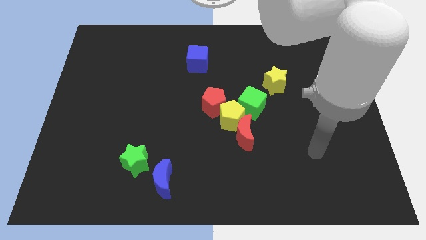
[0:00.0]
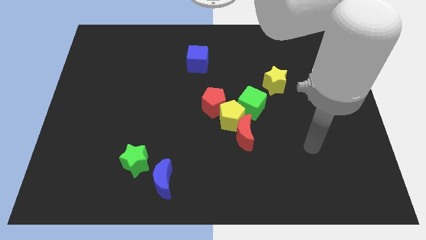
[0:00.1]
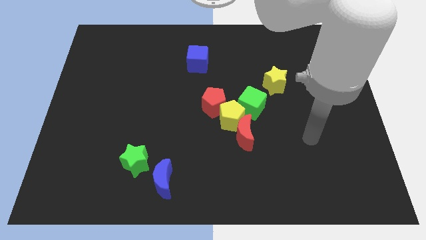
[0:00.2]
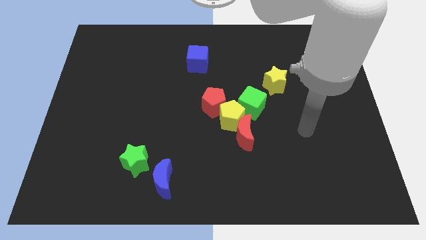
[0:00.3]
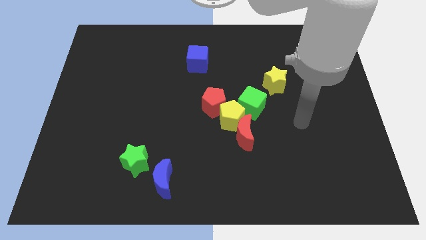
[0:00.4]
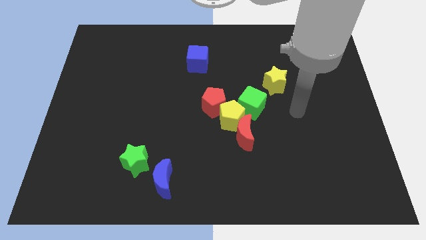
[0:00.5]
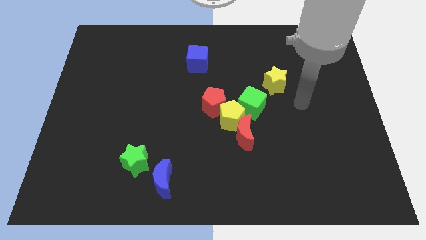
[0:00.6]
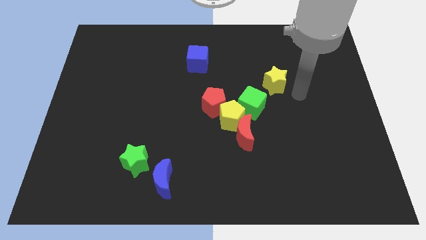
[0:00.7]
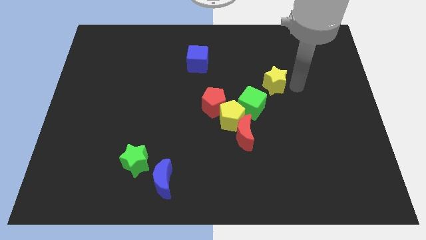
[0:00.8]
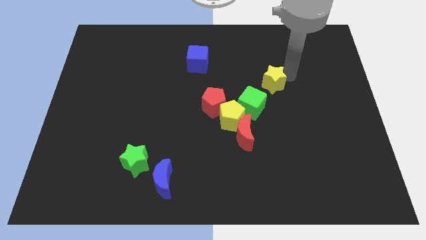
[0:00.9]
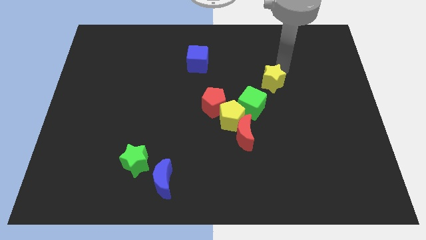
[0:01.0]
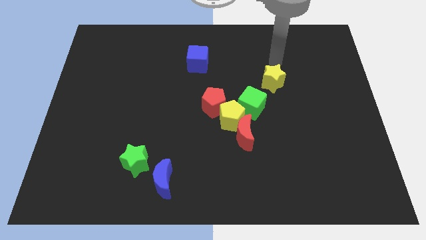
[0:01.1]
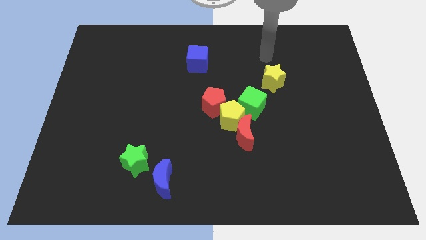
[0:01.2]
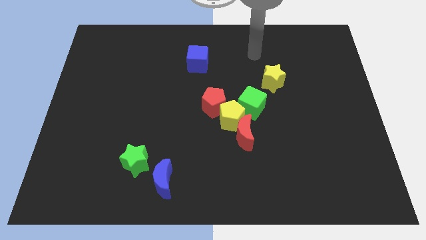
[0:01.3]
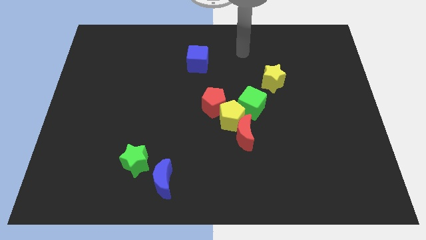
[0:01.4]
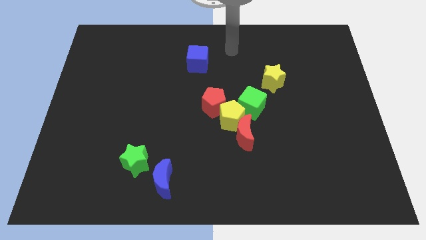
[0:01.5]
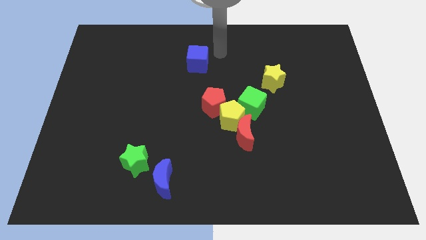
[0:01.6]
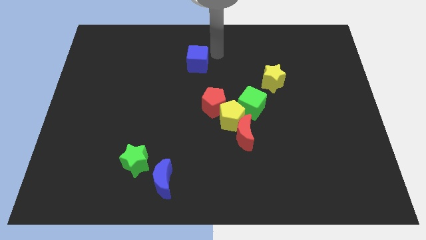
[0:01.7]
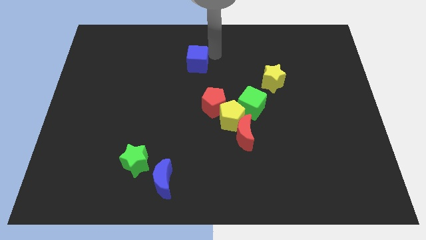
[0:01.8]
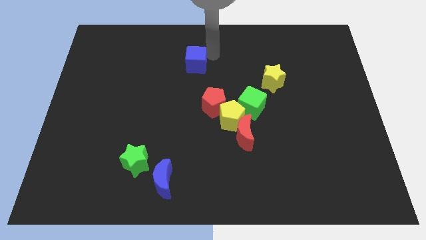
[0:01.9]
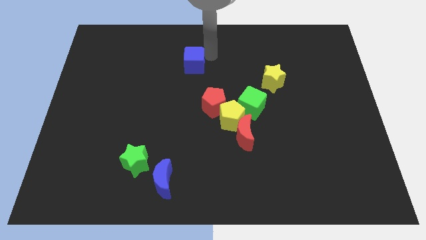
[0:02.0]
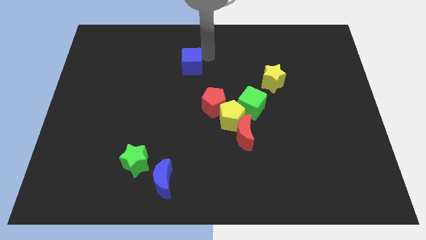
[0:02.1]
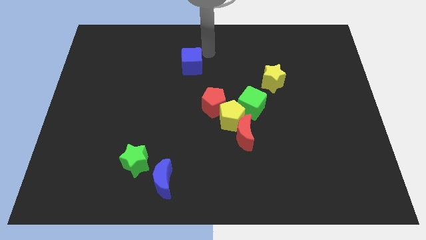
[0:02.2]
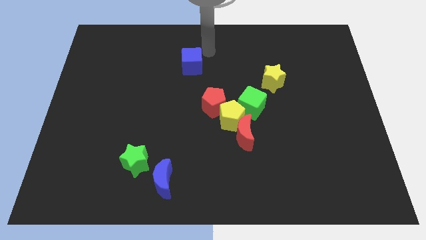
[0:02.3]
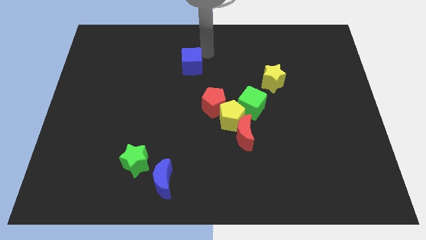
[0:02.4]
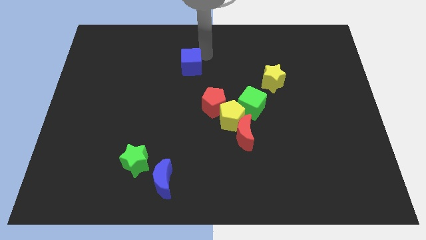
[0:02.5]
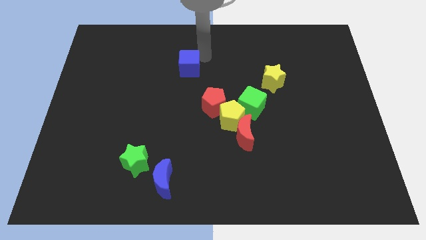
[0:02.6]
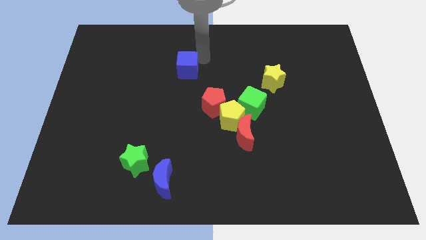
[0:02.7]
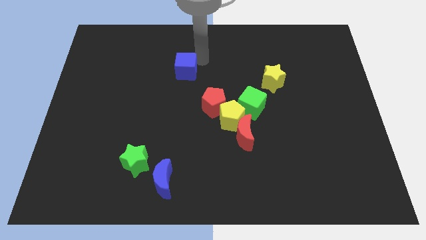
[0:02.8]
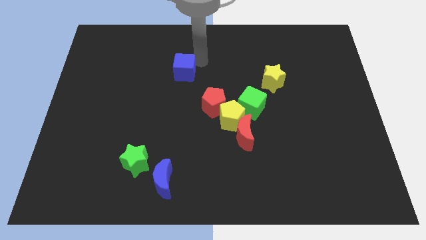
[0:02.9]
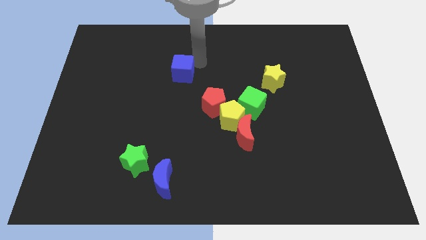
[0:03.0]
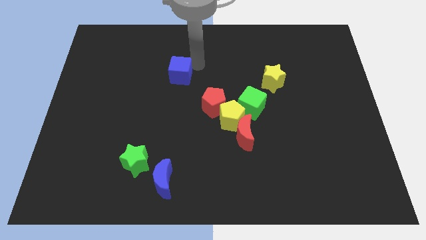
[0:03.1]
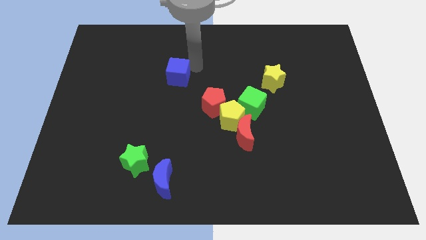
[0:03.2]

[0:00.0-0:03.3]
slightly push the blue cube down and to the left diagonally

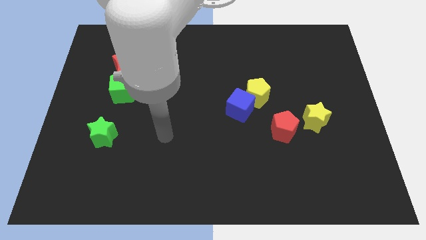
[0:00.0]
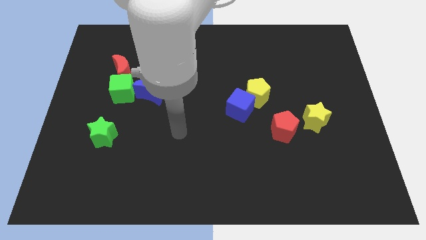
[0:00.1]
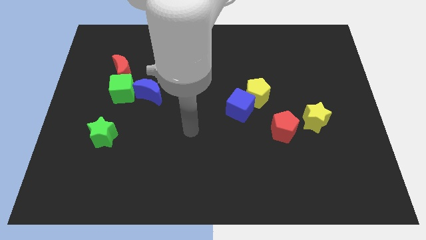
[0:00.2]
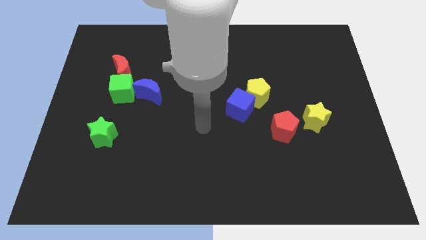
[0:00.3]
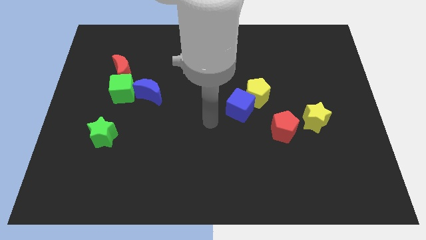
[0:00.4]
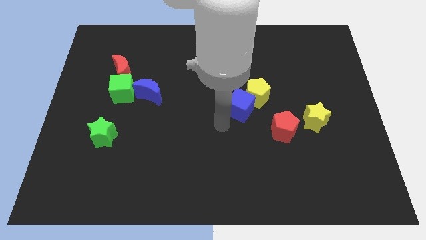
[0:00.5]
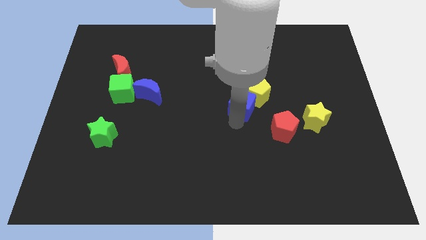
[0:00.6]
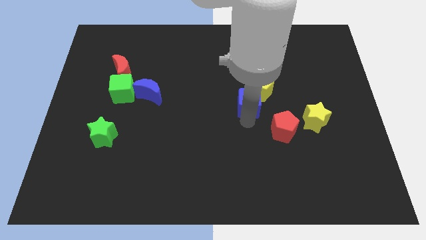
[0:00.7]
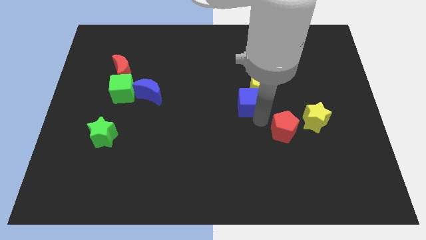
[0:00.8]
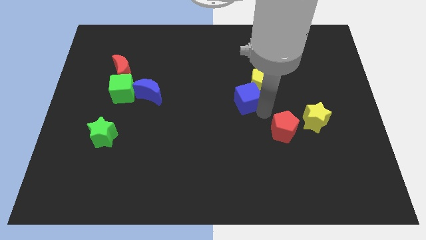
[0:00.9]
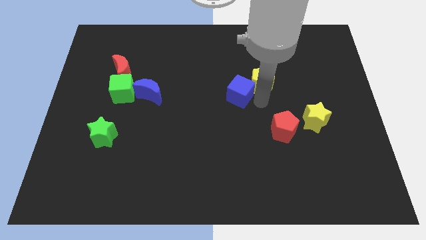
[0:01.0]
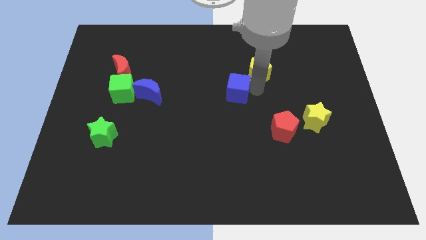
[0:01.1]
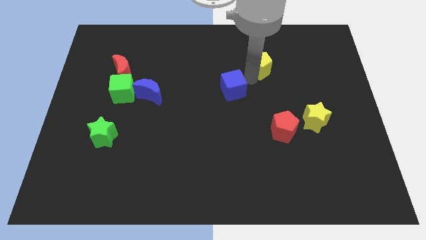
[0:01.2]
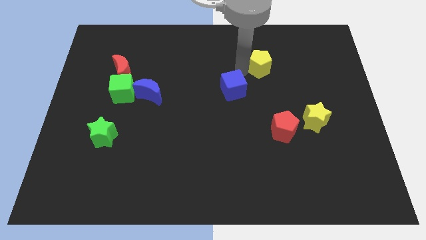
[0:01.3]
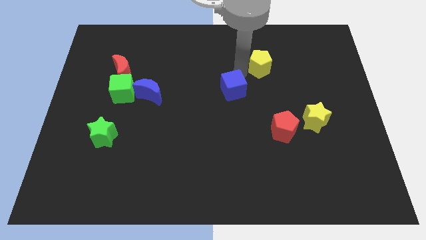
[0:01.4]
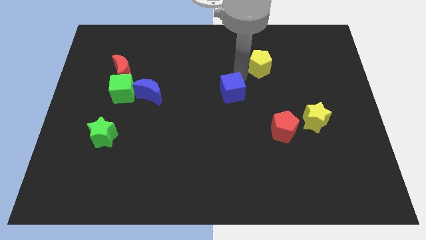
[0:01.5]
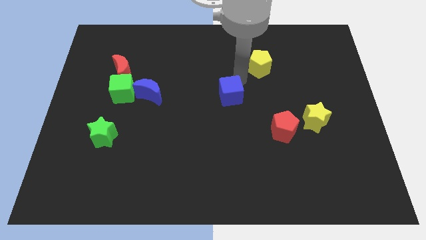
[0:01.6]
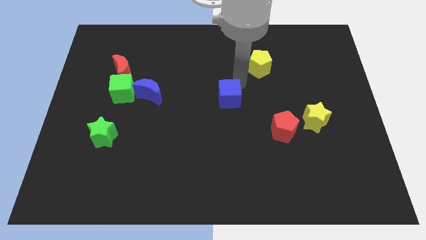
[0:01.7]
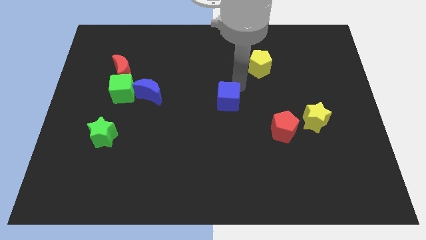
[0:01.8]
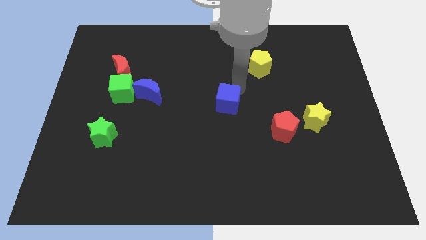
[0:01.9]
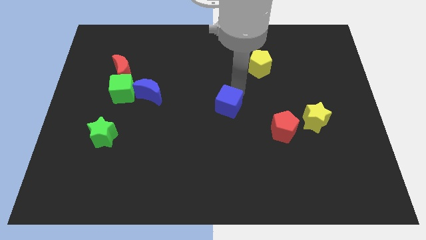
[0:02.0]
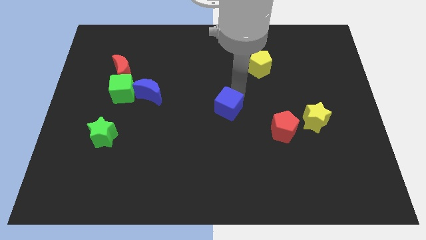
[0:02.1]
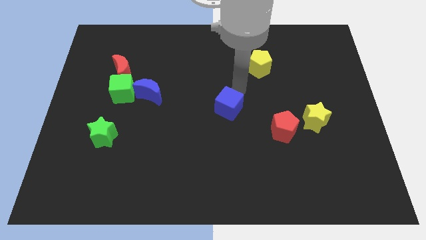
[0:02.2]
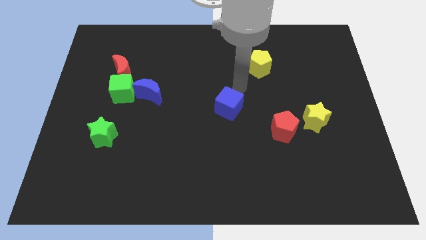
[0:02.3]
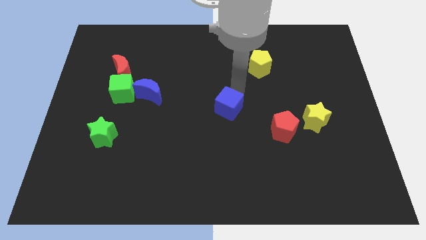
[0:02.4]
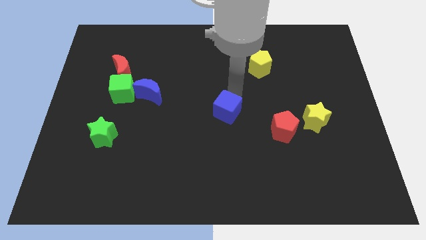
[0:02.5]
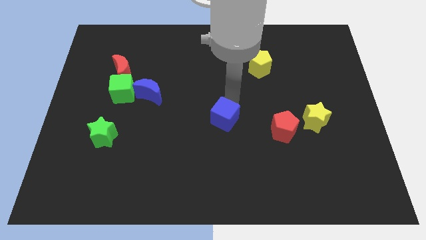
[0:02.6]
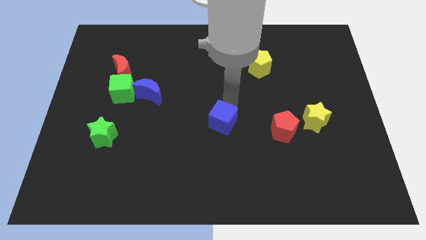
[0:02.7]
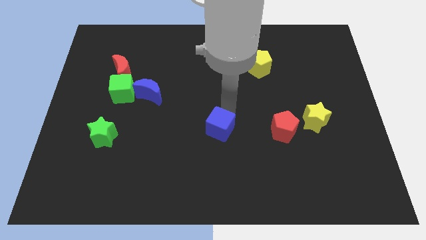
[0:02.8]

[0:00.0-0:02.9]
slightly move the blue cube diagonally down and to the left

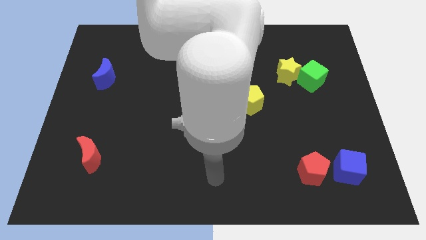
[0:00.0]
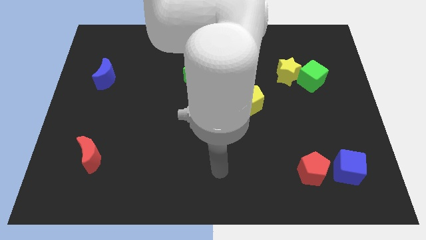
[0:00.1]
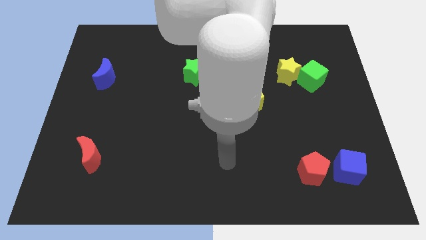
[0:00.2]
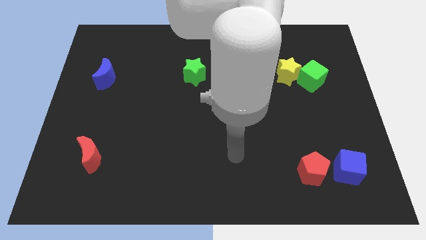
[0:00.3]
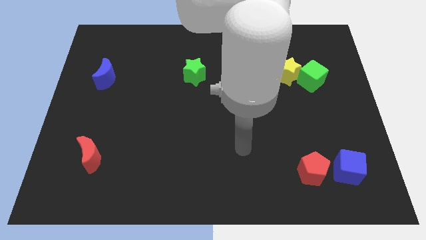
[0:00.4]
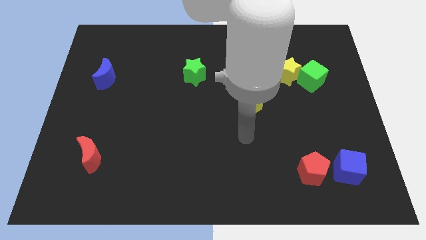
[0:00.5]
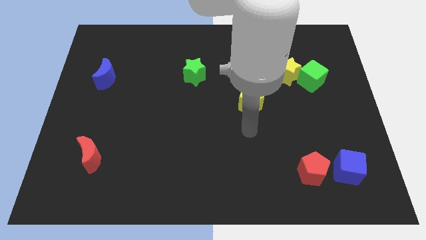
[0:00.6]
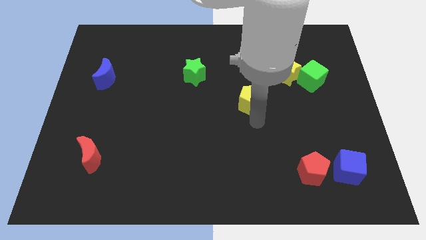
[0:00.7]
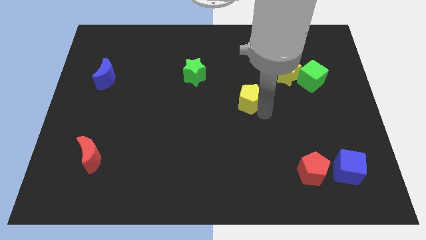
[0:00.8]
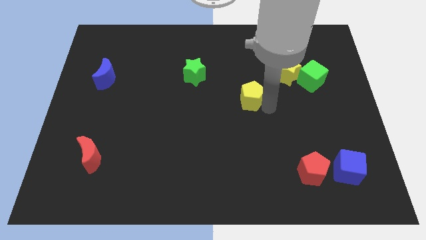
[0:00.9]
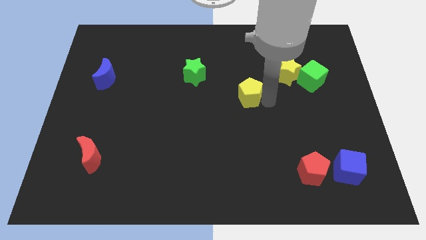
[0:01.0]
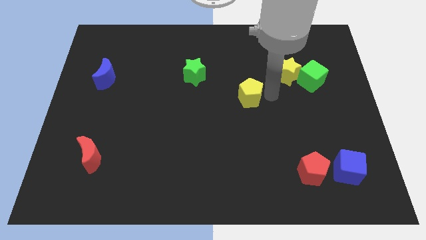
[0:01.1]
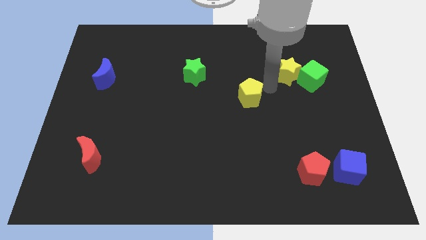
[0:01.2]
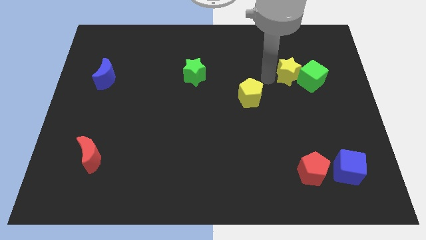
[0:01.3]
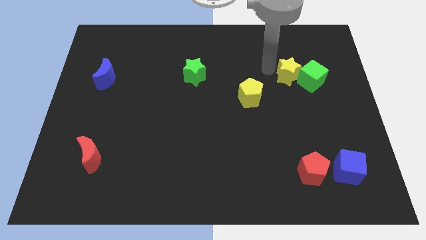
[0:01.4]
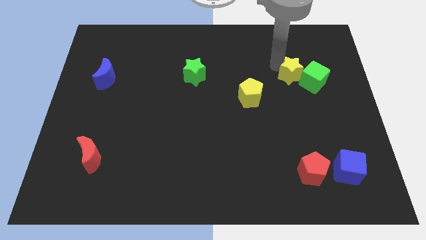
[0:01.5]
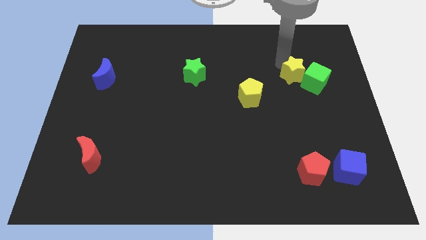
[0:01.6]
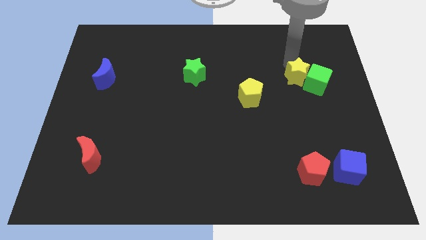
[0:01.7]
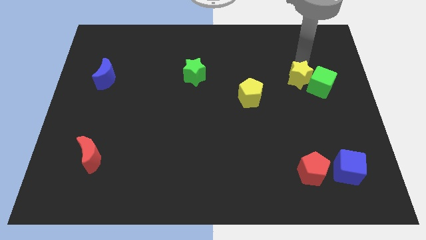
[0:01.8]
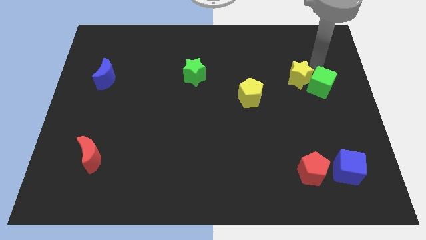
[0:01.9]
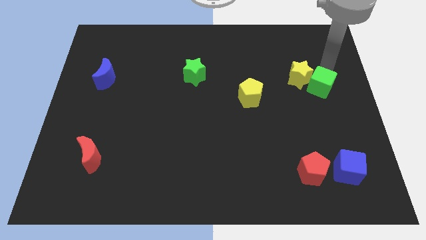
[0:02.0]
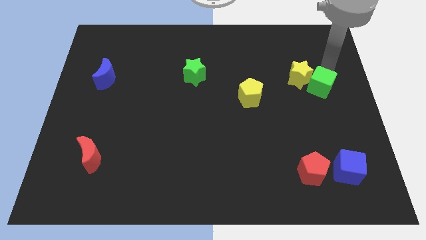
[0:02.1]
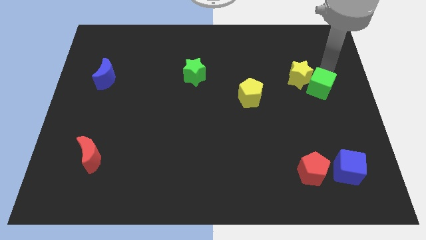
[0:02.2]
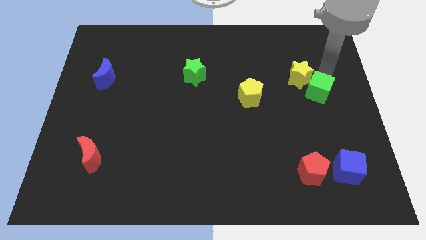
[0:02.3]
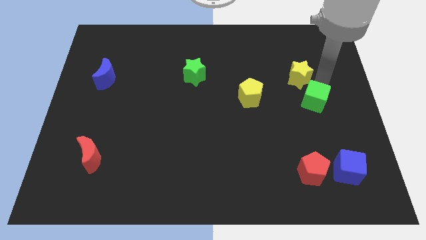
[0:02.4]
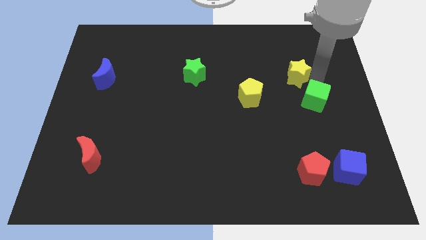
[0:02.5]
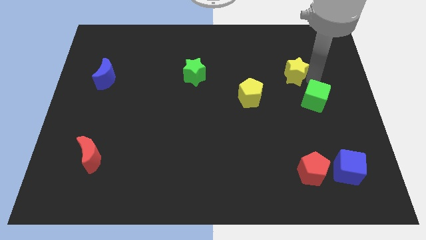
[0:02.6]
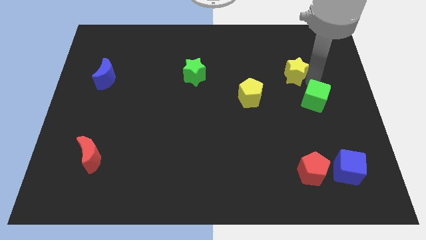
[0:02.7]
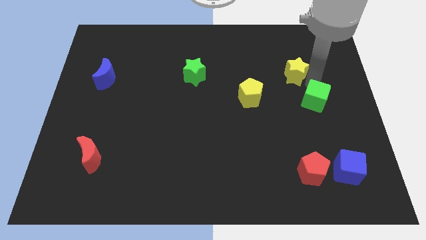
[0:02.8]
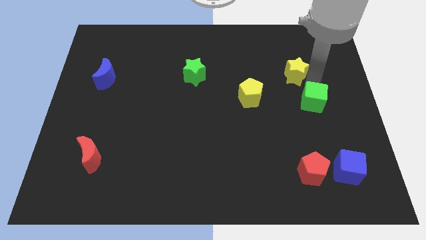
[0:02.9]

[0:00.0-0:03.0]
push the green cube down slightly
